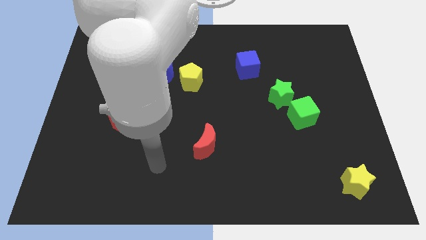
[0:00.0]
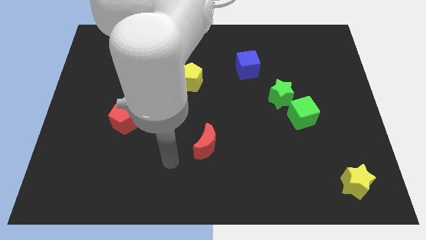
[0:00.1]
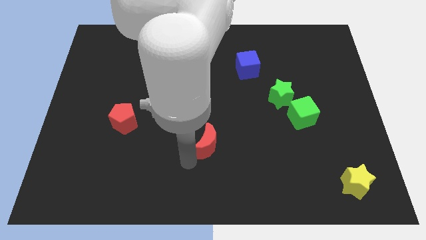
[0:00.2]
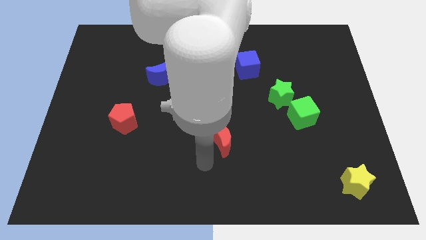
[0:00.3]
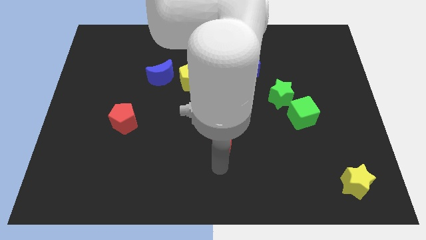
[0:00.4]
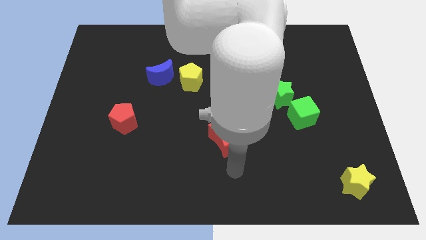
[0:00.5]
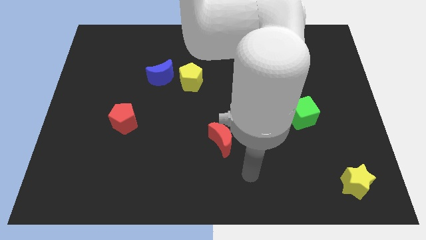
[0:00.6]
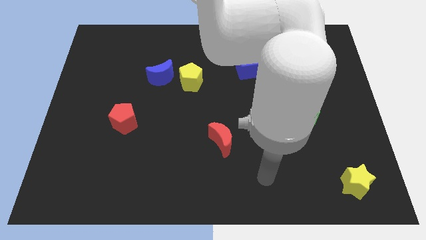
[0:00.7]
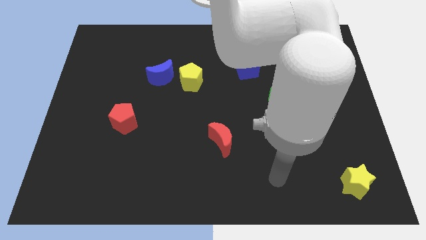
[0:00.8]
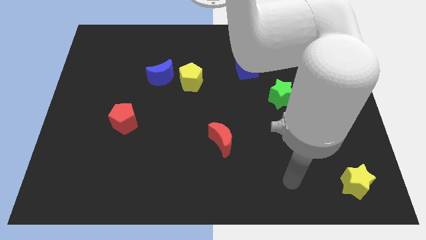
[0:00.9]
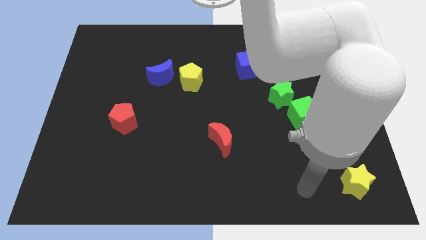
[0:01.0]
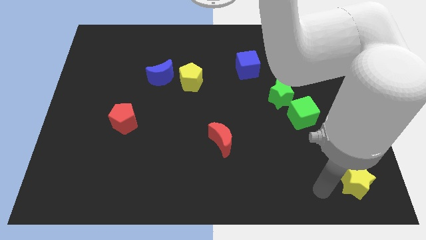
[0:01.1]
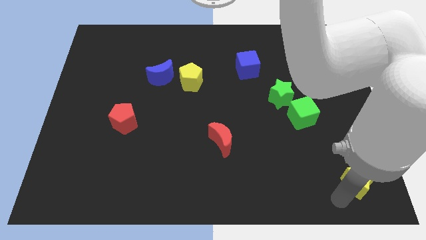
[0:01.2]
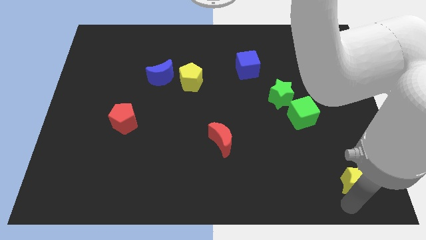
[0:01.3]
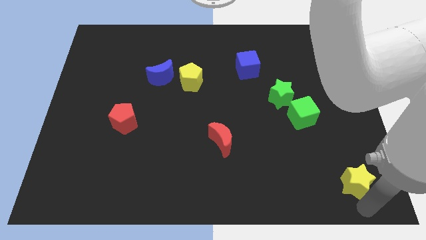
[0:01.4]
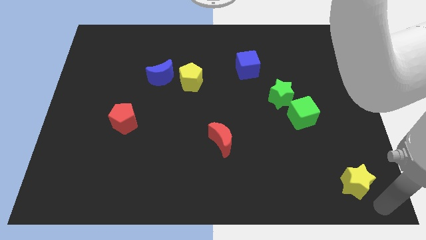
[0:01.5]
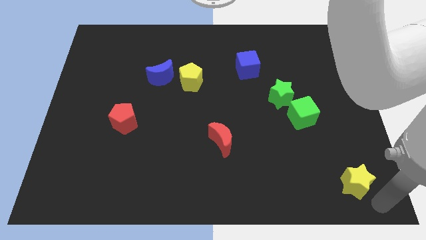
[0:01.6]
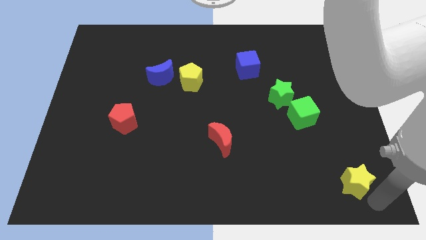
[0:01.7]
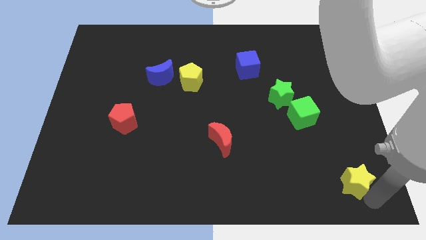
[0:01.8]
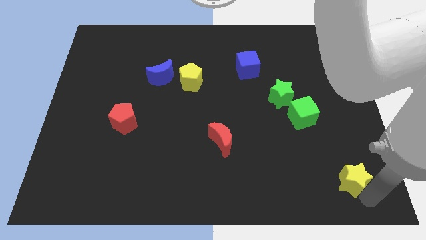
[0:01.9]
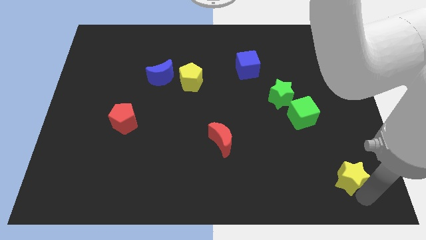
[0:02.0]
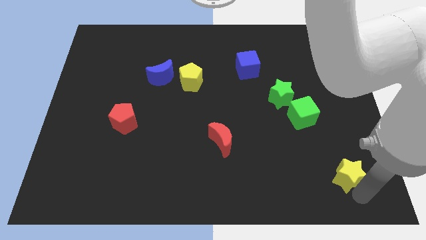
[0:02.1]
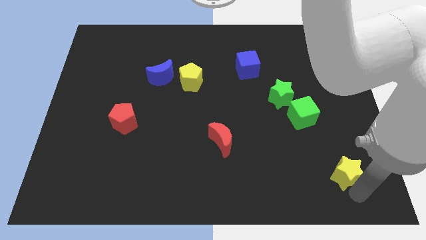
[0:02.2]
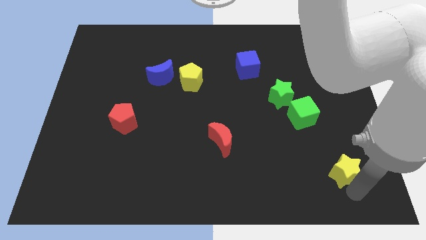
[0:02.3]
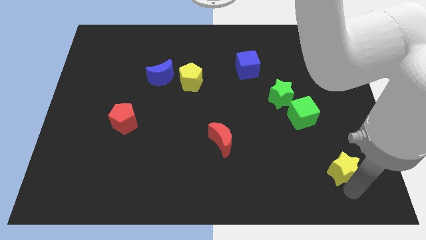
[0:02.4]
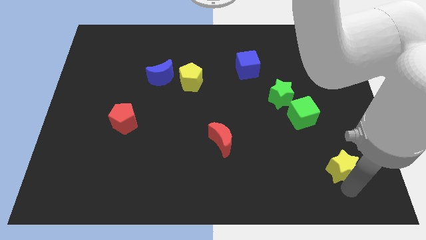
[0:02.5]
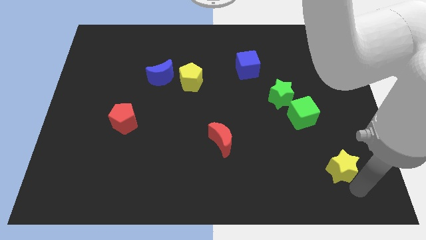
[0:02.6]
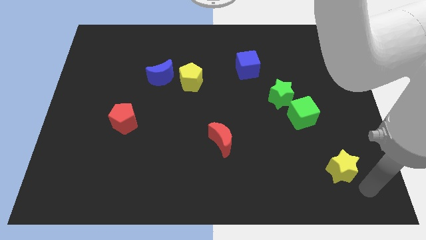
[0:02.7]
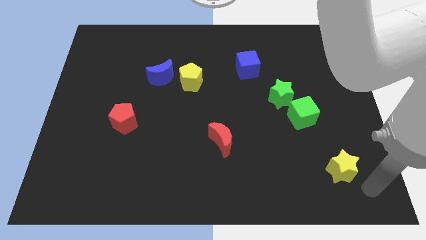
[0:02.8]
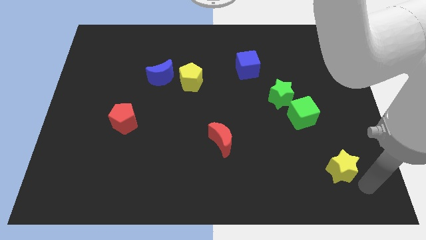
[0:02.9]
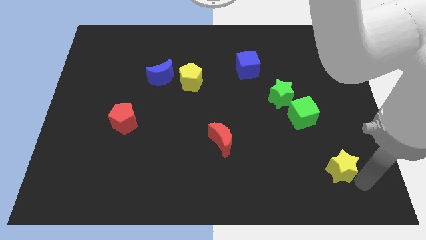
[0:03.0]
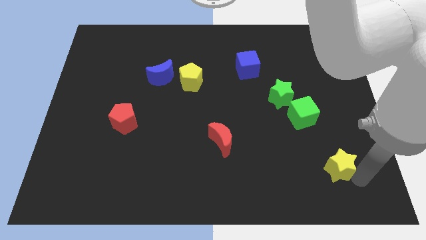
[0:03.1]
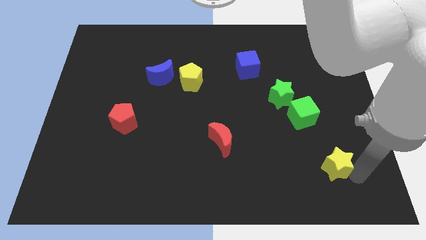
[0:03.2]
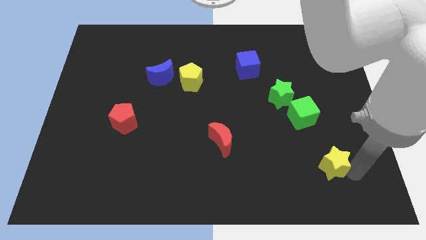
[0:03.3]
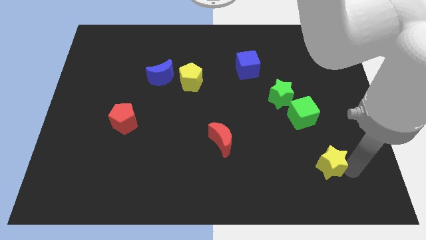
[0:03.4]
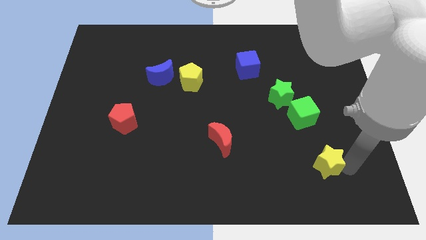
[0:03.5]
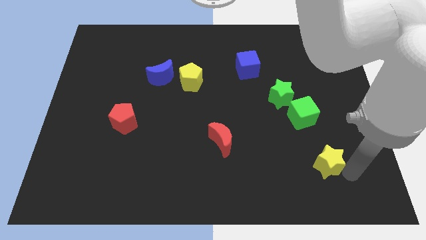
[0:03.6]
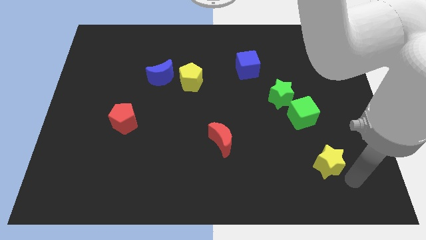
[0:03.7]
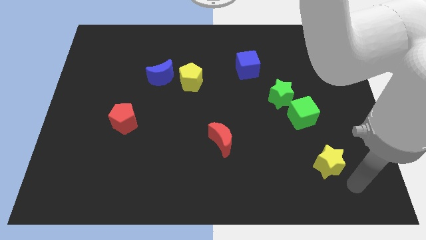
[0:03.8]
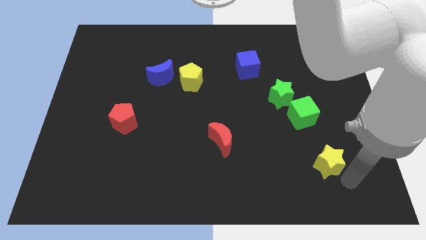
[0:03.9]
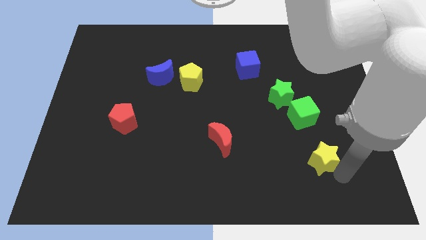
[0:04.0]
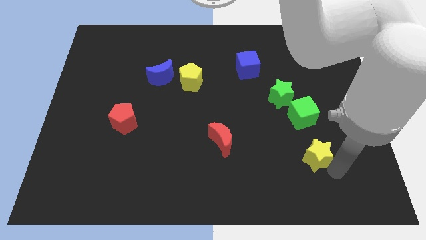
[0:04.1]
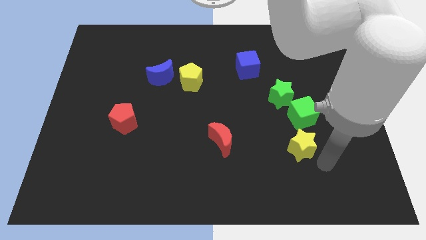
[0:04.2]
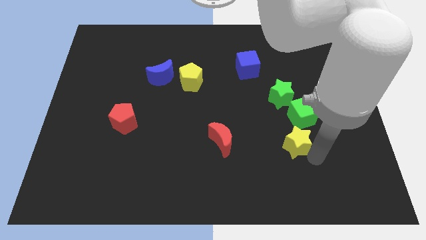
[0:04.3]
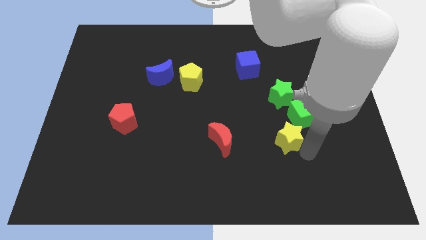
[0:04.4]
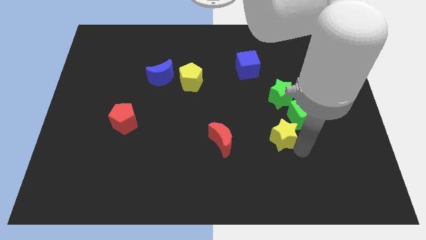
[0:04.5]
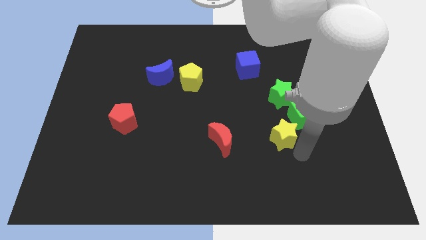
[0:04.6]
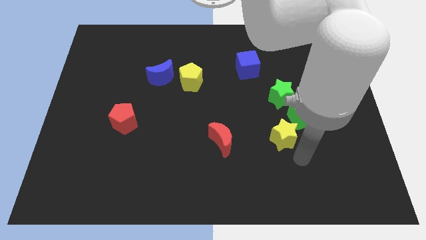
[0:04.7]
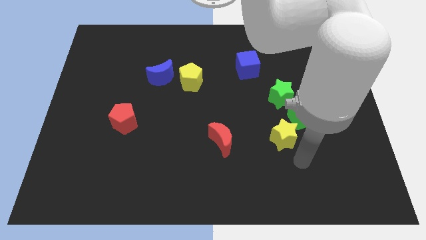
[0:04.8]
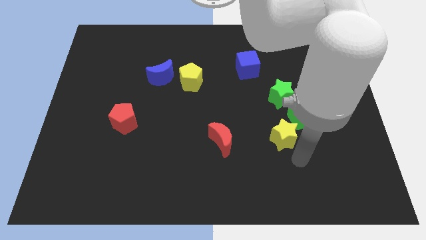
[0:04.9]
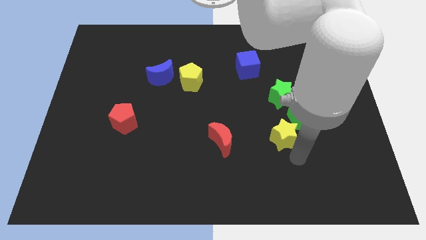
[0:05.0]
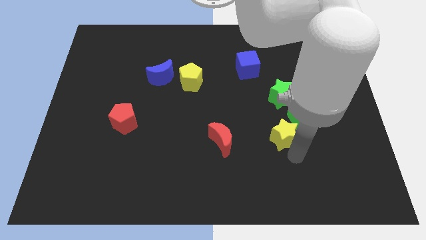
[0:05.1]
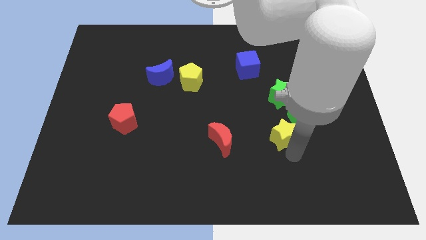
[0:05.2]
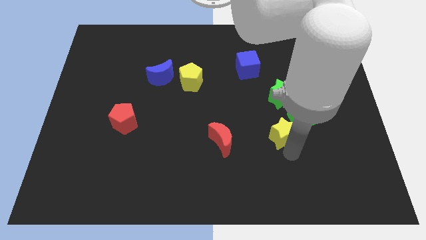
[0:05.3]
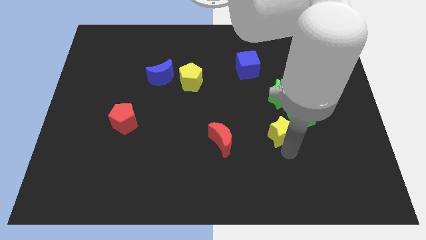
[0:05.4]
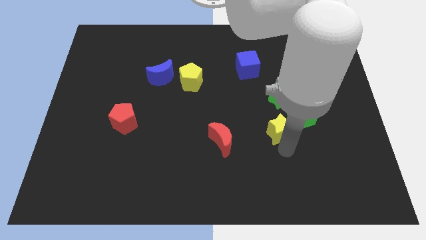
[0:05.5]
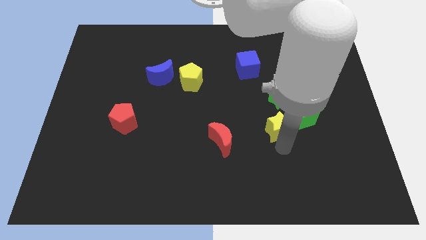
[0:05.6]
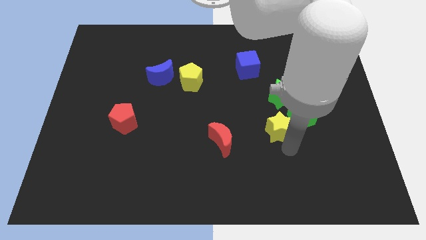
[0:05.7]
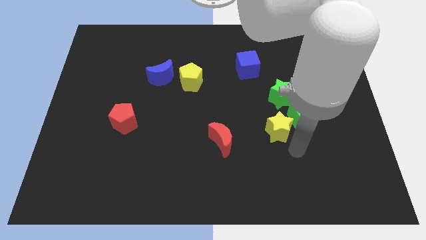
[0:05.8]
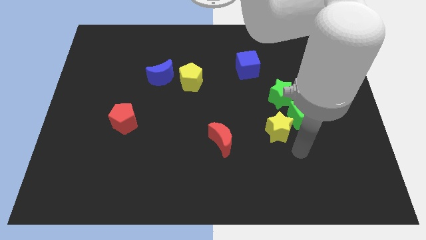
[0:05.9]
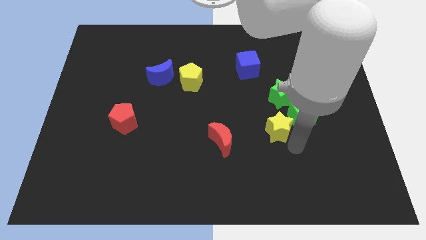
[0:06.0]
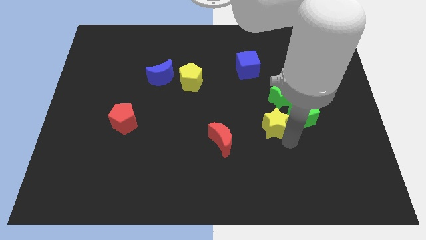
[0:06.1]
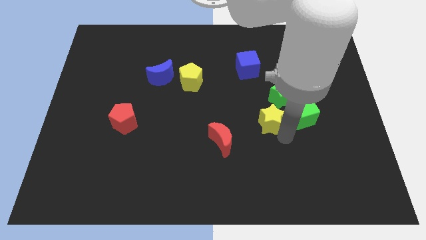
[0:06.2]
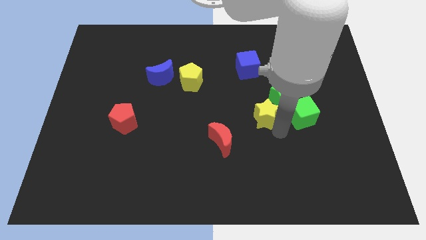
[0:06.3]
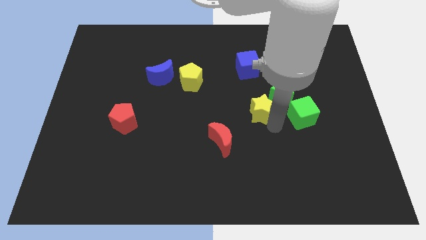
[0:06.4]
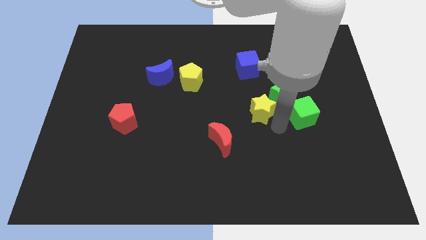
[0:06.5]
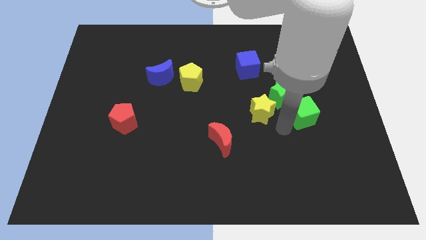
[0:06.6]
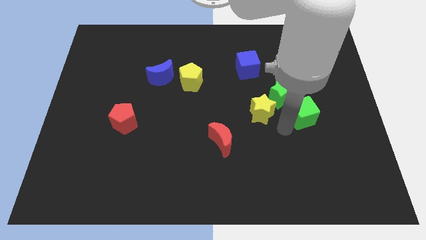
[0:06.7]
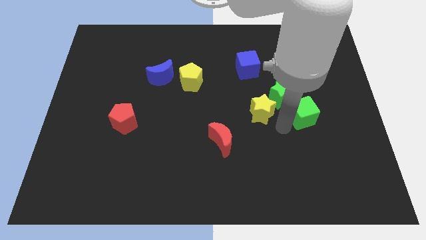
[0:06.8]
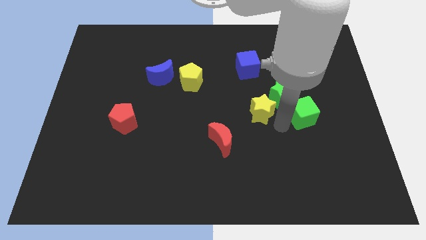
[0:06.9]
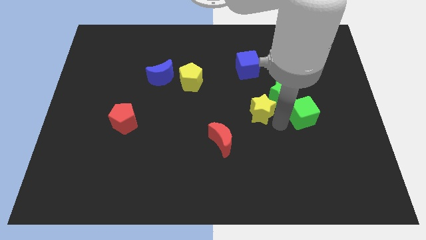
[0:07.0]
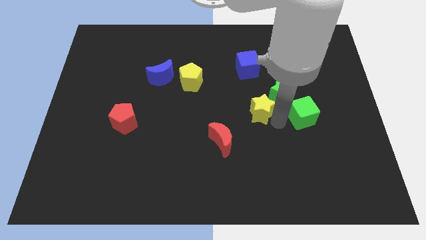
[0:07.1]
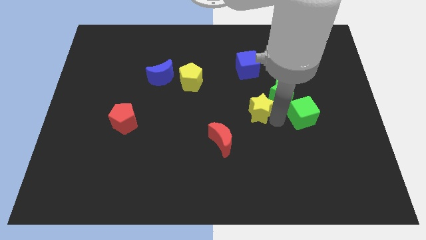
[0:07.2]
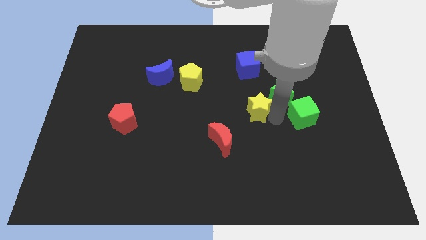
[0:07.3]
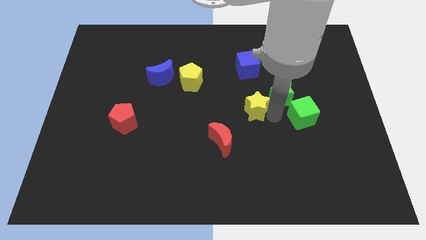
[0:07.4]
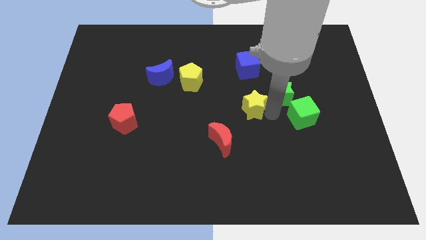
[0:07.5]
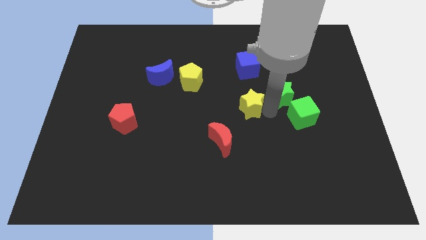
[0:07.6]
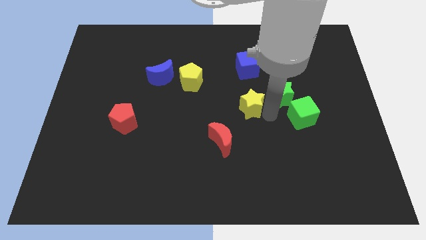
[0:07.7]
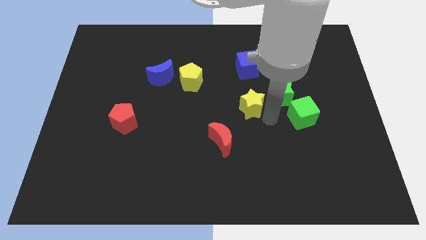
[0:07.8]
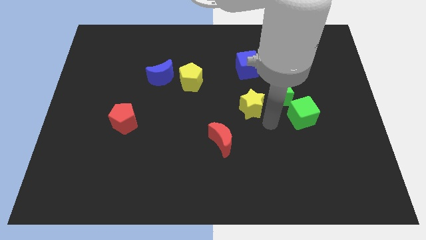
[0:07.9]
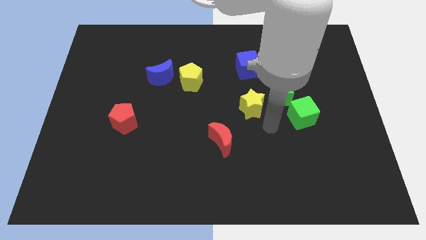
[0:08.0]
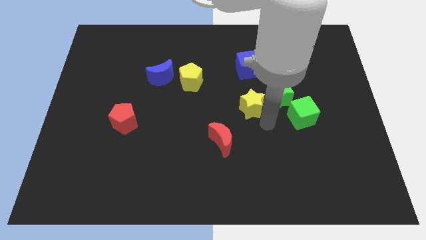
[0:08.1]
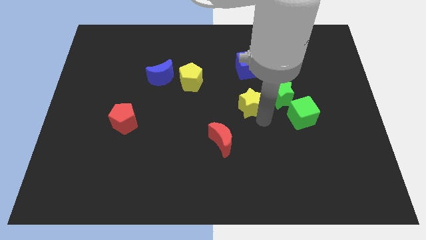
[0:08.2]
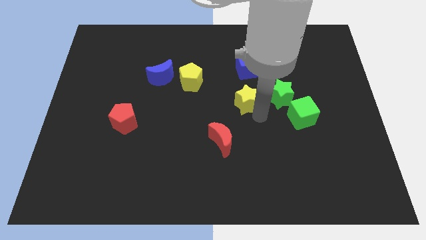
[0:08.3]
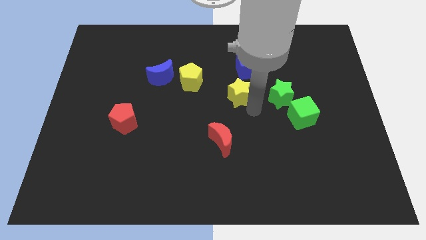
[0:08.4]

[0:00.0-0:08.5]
put the yellow star to the bottom left of the blue cube
